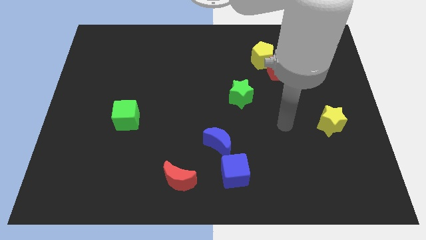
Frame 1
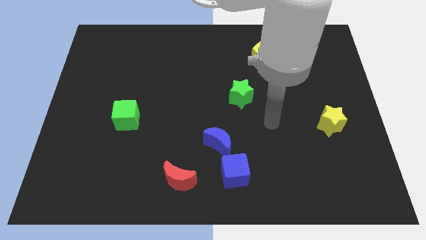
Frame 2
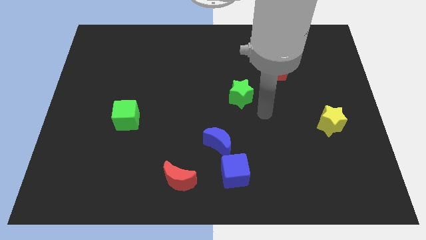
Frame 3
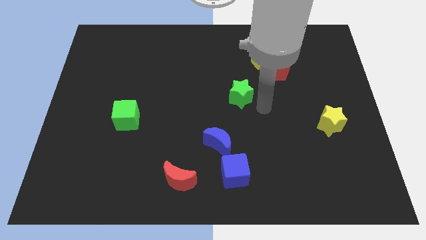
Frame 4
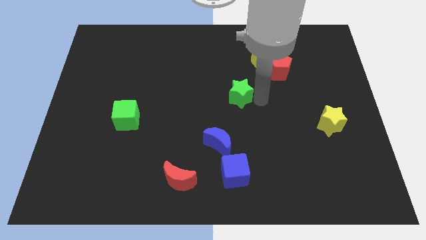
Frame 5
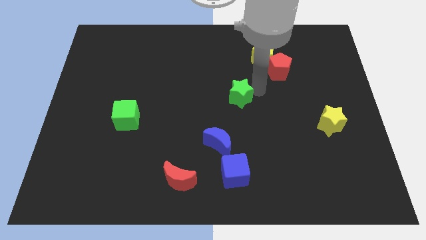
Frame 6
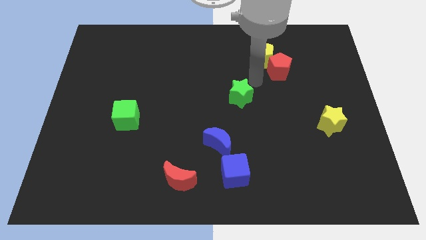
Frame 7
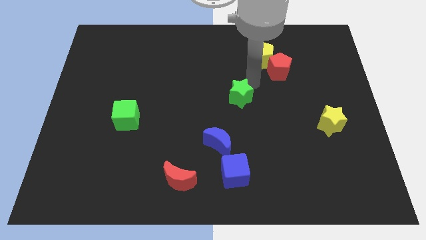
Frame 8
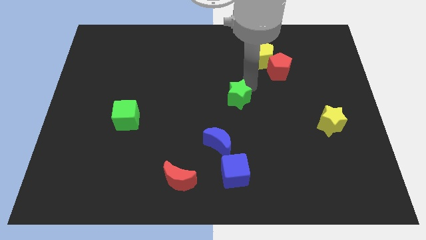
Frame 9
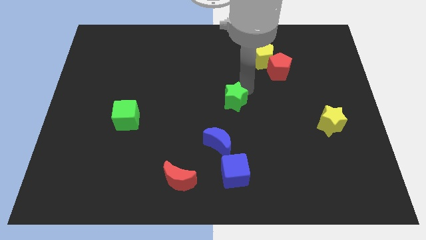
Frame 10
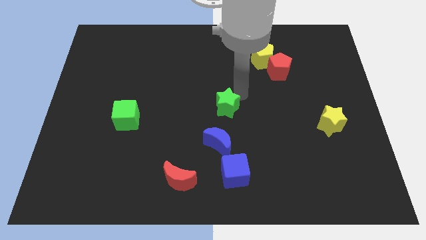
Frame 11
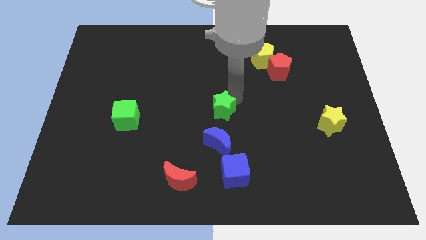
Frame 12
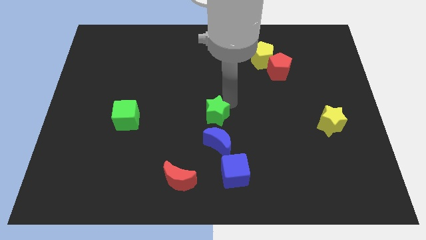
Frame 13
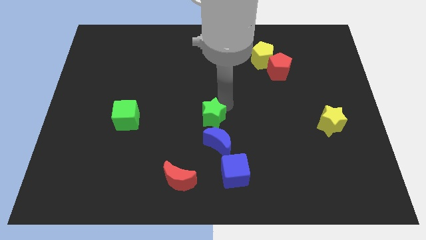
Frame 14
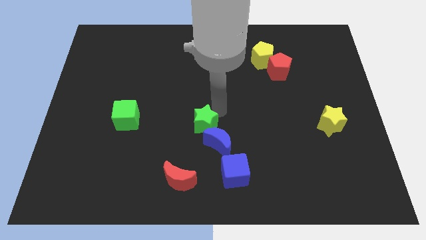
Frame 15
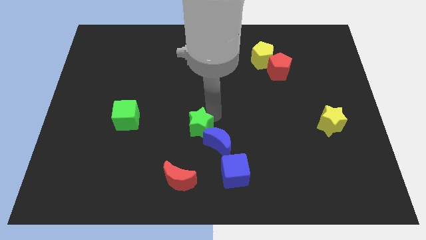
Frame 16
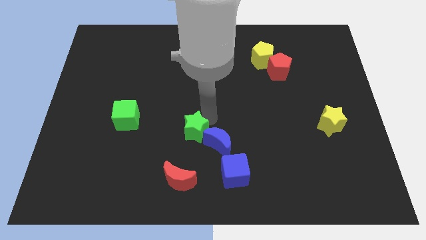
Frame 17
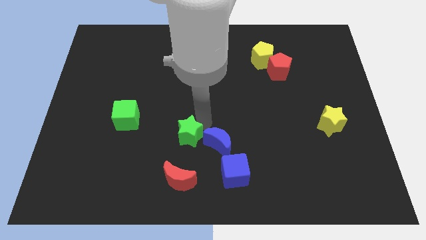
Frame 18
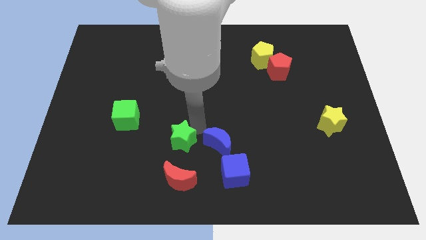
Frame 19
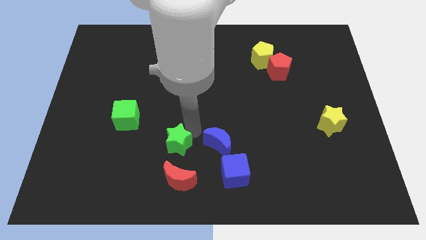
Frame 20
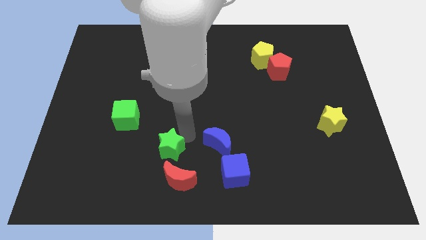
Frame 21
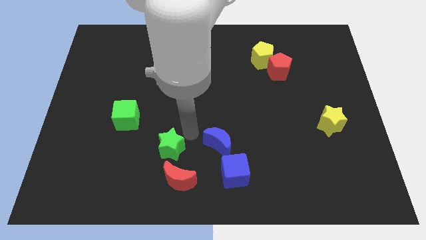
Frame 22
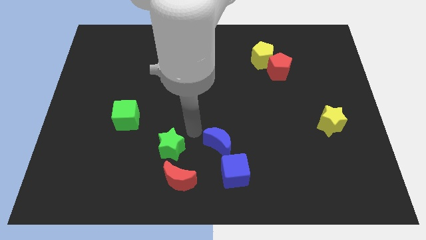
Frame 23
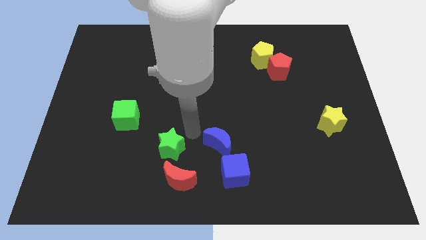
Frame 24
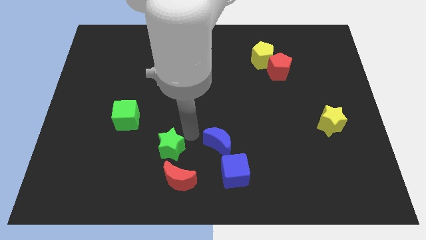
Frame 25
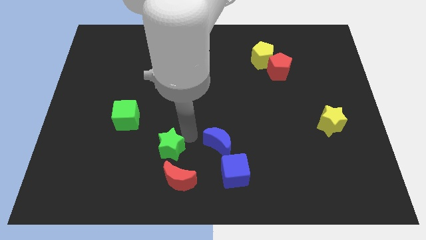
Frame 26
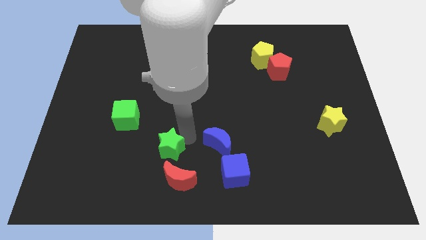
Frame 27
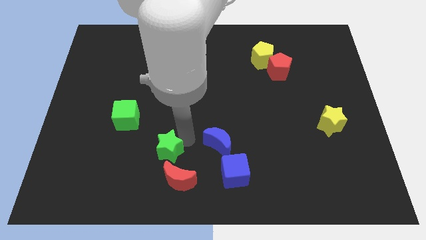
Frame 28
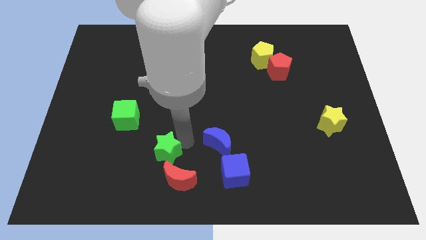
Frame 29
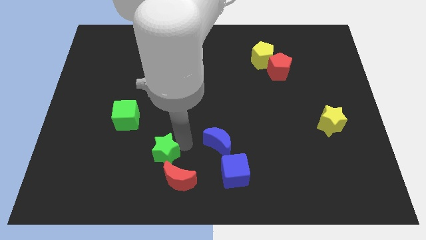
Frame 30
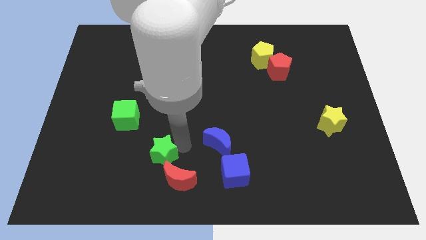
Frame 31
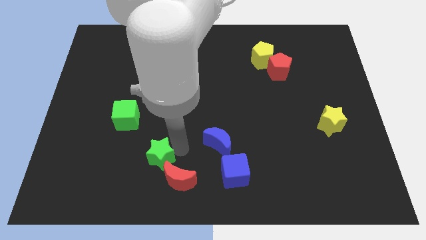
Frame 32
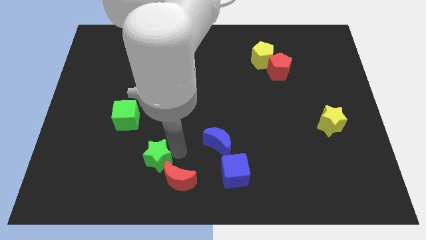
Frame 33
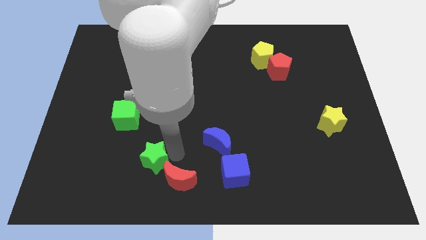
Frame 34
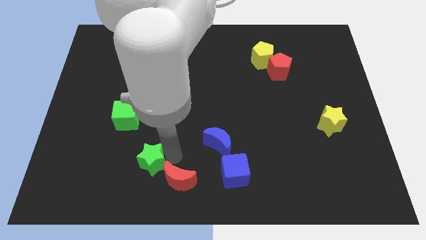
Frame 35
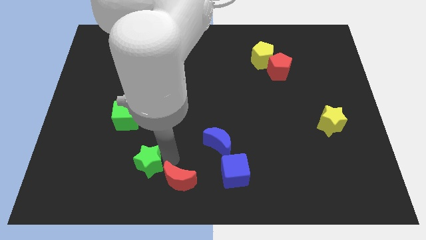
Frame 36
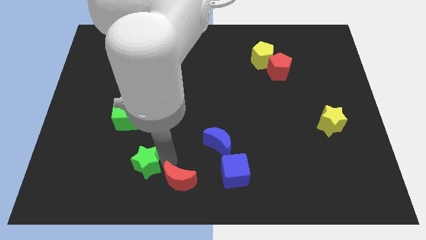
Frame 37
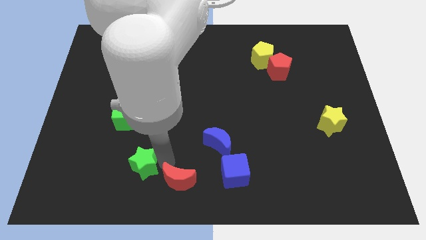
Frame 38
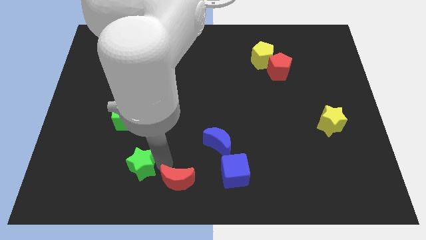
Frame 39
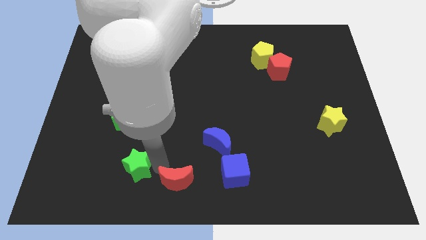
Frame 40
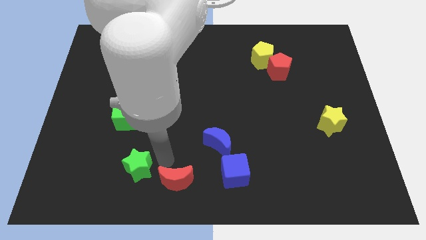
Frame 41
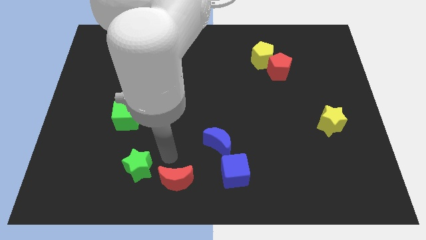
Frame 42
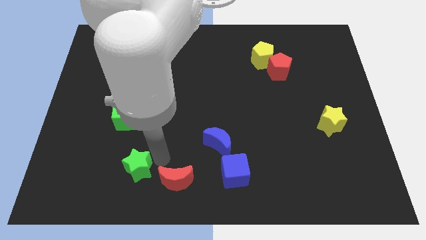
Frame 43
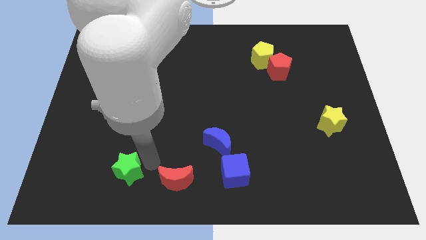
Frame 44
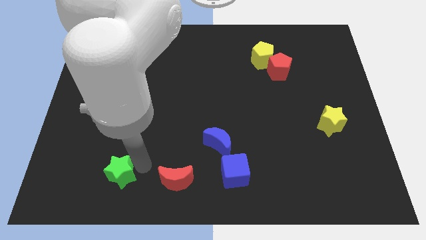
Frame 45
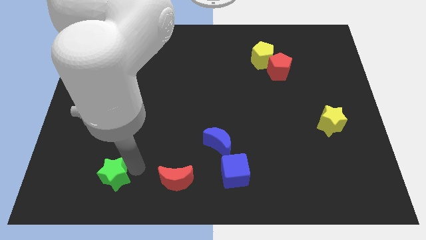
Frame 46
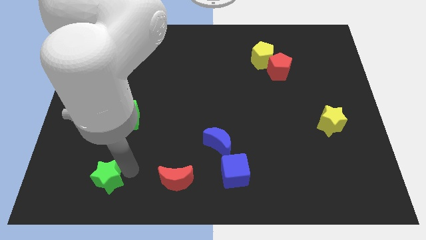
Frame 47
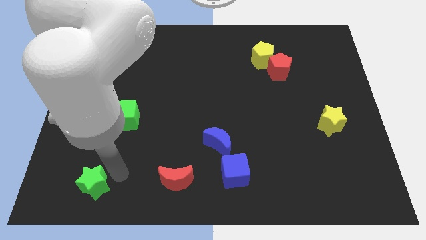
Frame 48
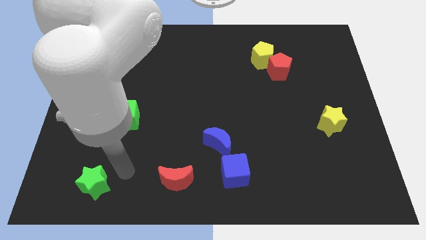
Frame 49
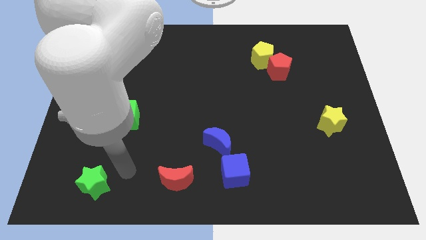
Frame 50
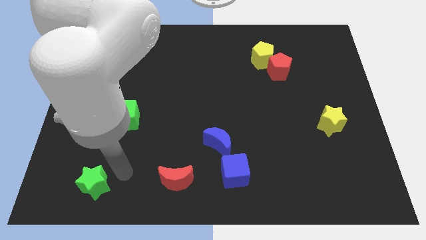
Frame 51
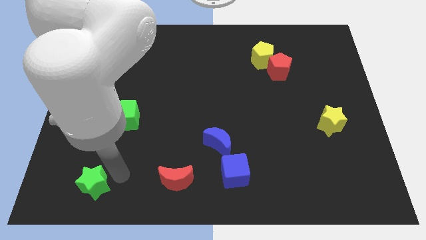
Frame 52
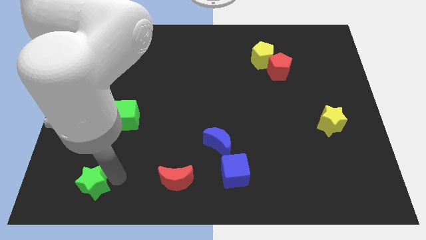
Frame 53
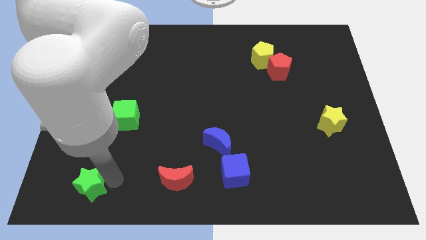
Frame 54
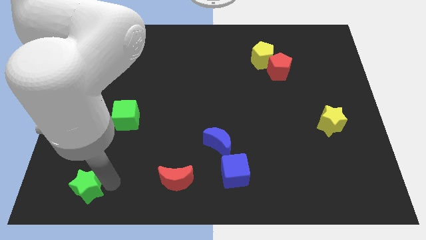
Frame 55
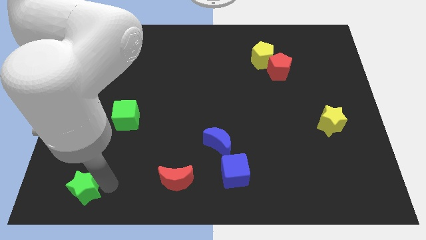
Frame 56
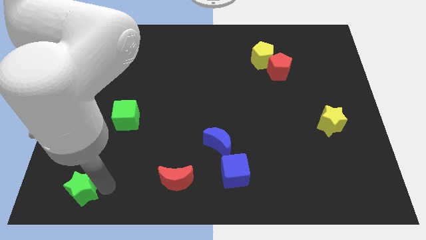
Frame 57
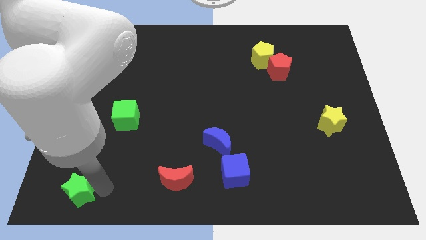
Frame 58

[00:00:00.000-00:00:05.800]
put the green star to the lower left corner

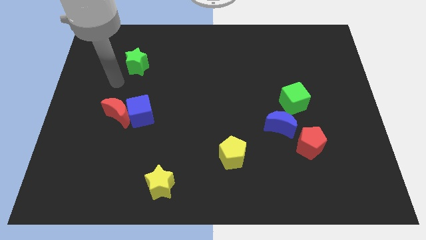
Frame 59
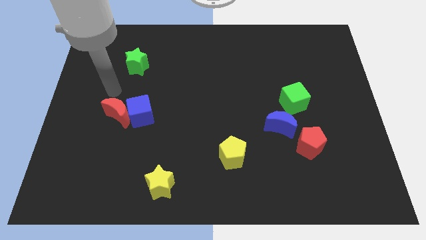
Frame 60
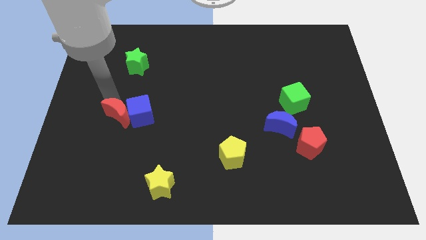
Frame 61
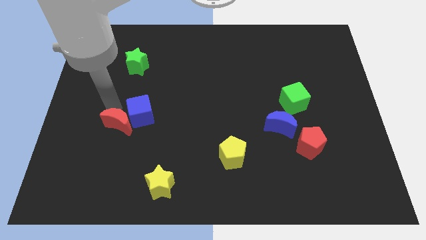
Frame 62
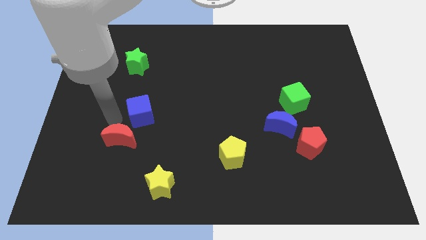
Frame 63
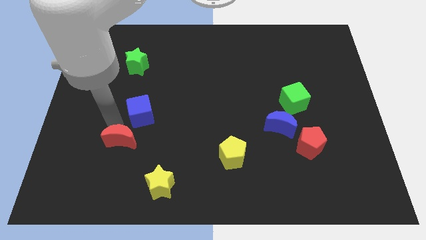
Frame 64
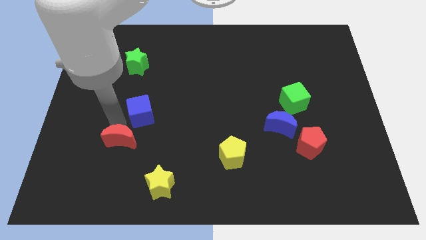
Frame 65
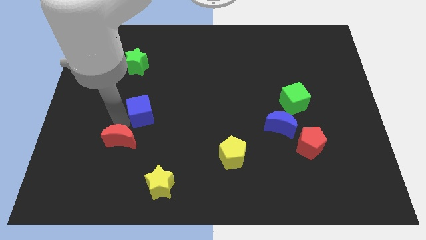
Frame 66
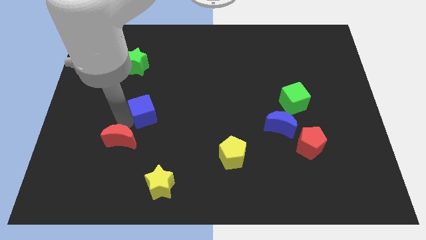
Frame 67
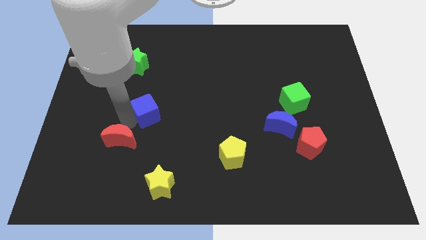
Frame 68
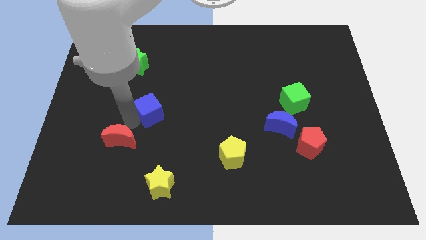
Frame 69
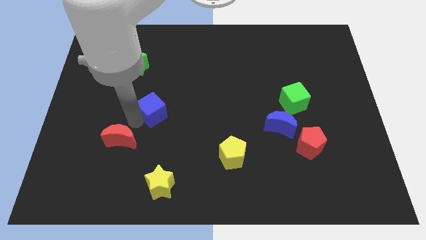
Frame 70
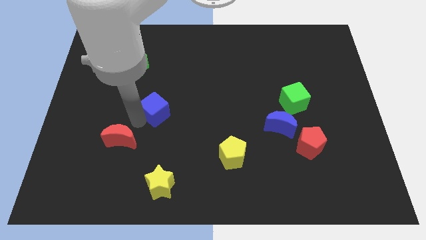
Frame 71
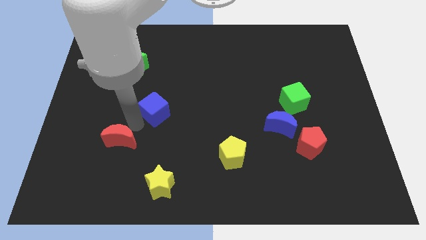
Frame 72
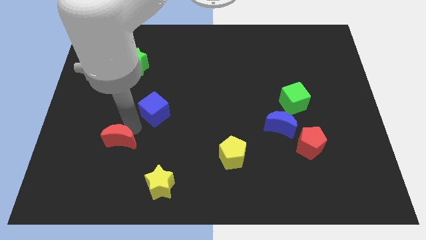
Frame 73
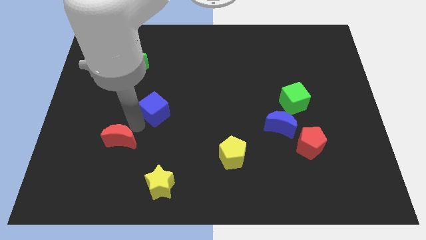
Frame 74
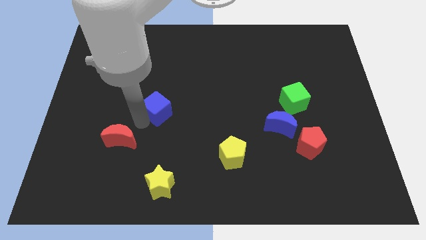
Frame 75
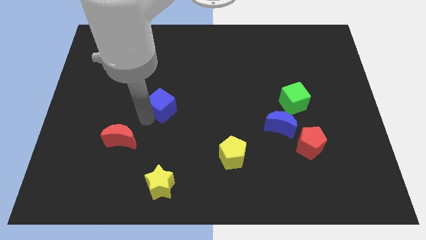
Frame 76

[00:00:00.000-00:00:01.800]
move the blue cube to the middle

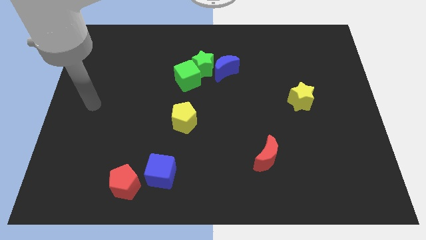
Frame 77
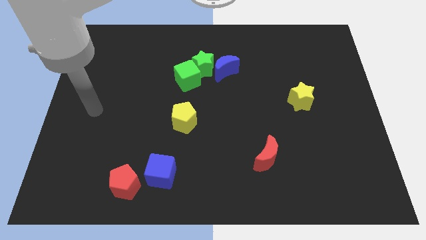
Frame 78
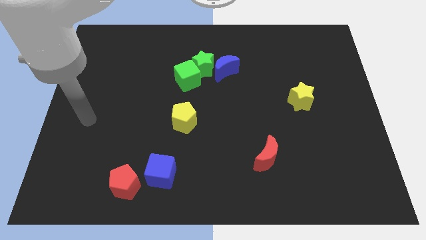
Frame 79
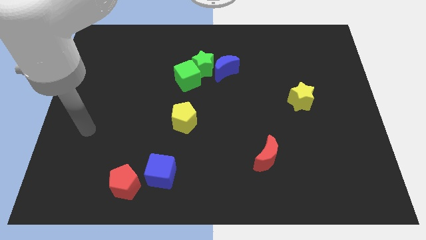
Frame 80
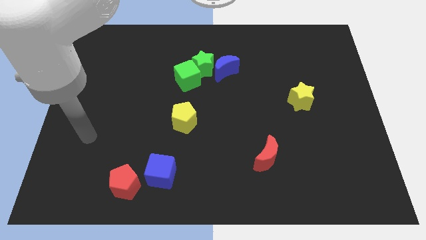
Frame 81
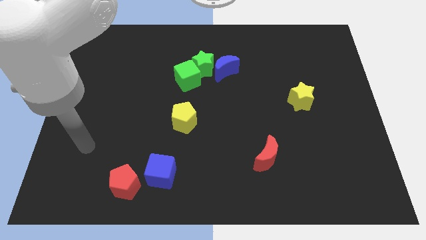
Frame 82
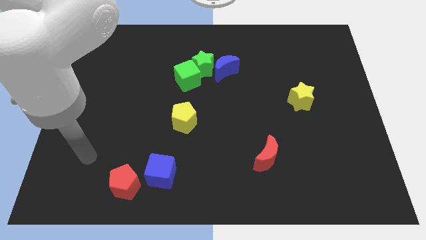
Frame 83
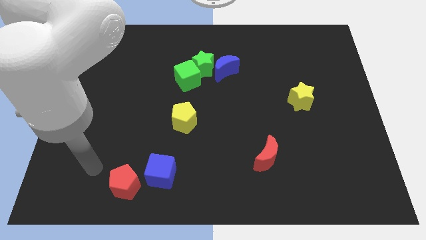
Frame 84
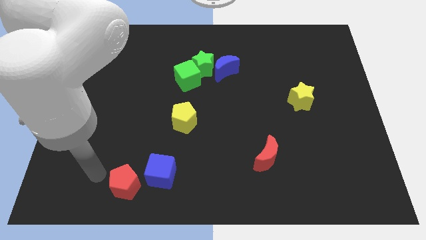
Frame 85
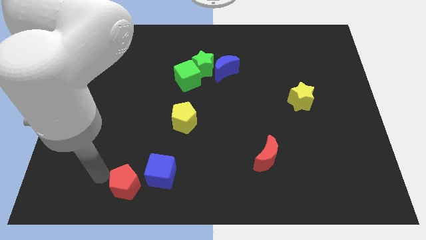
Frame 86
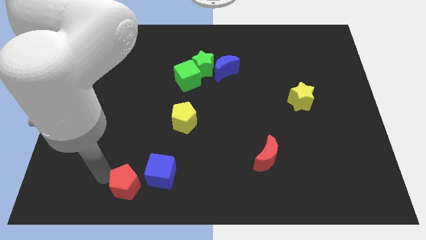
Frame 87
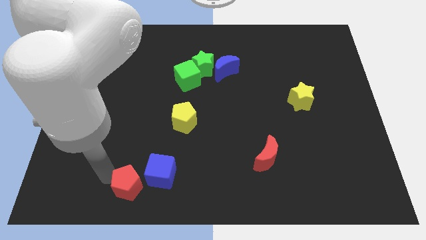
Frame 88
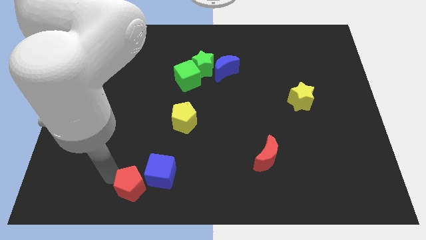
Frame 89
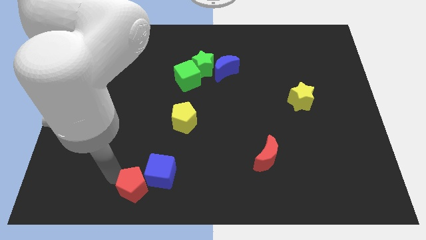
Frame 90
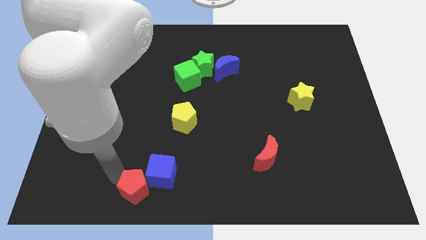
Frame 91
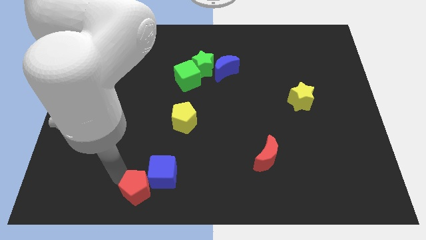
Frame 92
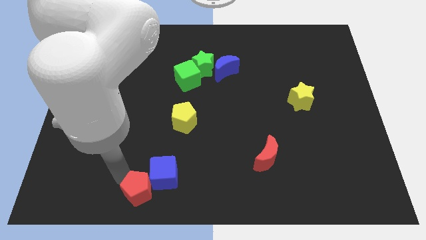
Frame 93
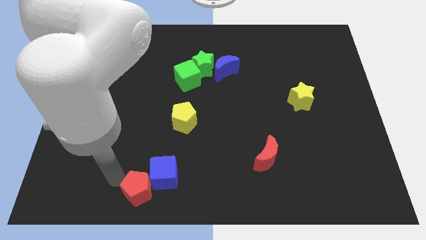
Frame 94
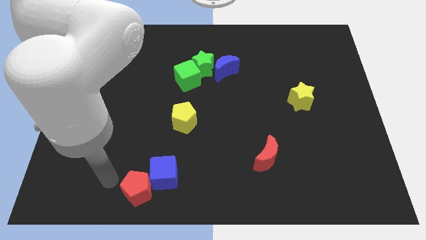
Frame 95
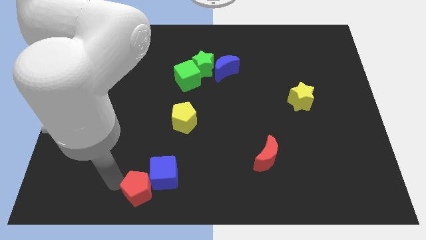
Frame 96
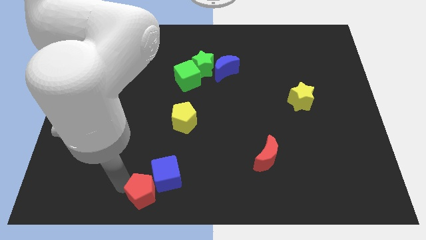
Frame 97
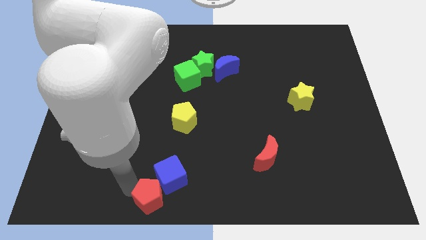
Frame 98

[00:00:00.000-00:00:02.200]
push the red pentagon to the bottom side
